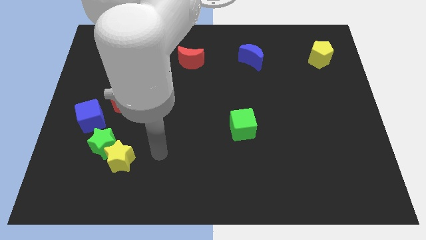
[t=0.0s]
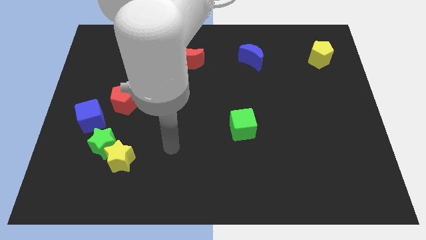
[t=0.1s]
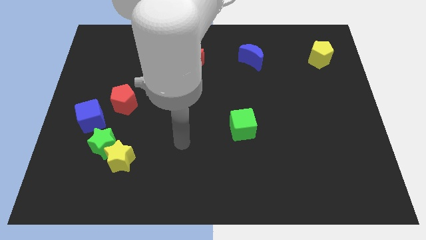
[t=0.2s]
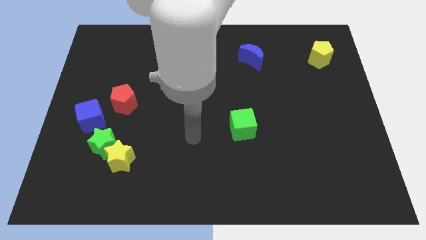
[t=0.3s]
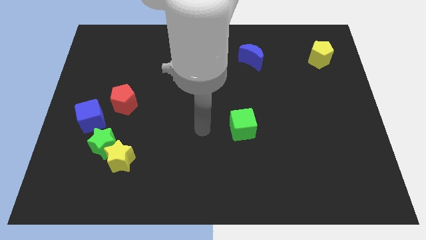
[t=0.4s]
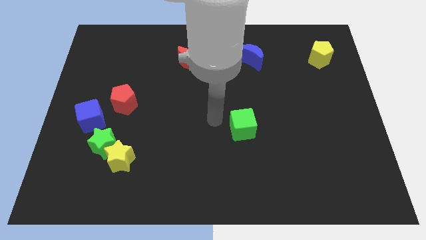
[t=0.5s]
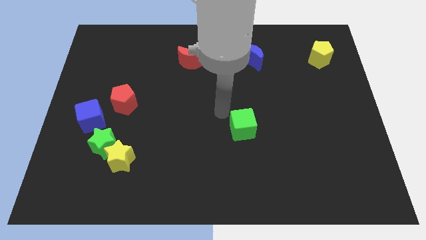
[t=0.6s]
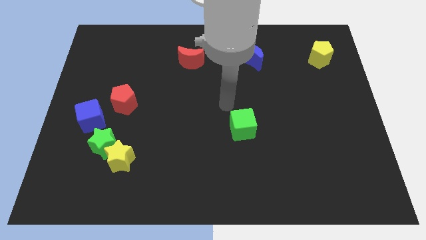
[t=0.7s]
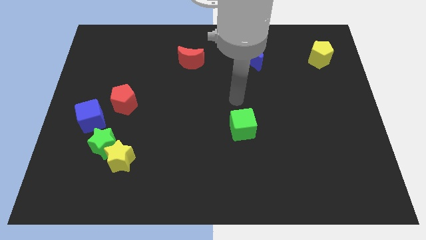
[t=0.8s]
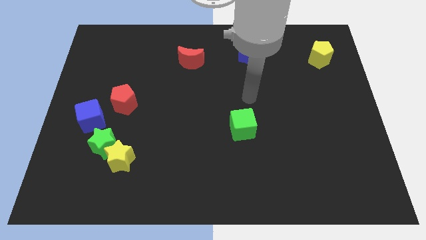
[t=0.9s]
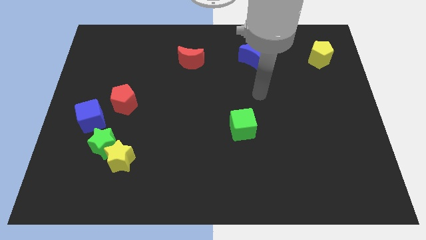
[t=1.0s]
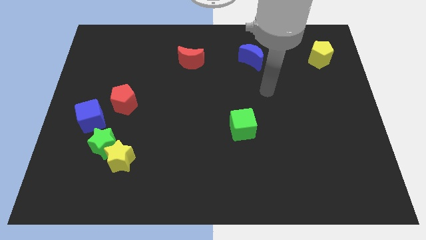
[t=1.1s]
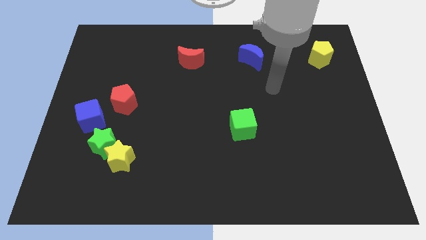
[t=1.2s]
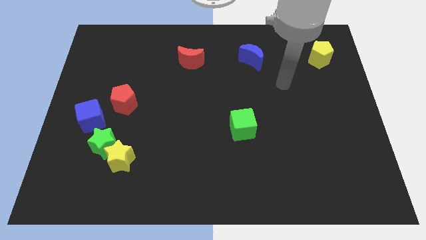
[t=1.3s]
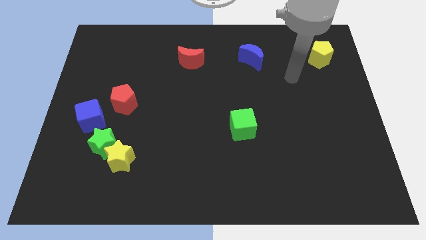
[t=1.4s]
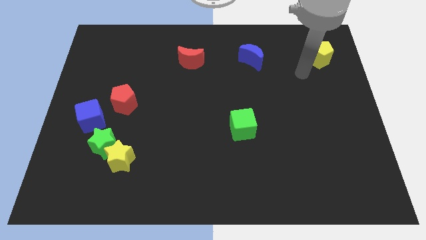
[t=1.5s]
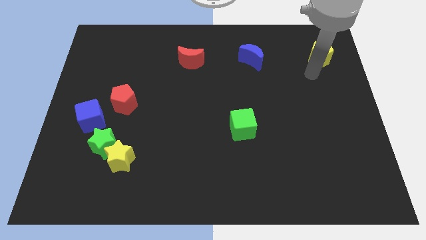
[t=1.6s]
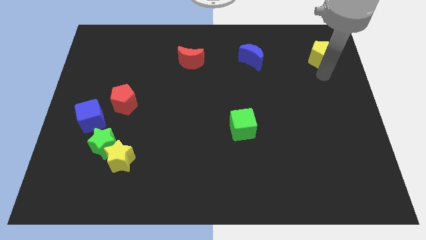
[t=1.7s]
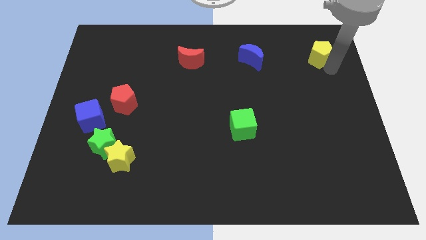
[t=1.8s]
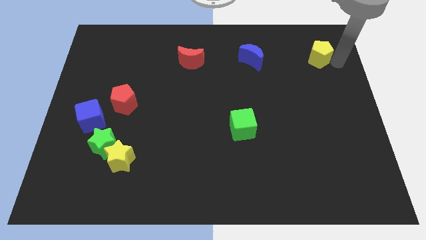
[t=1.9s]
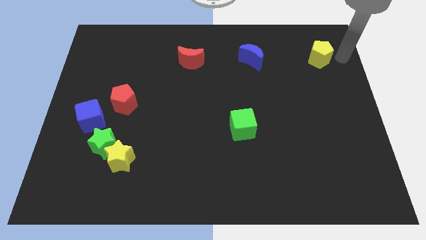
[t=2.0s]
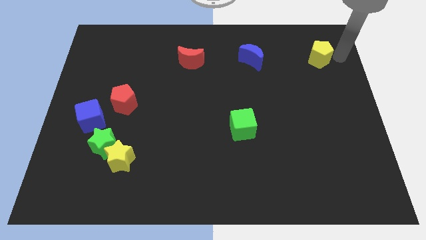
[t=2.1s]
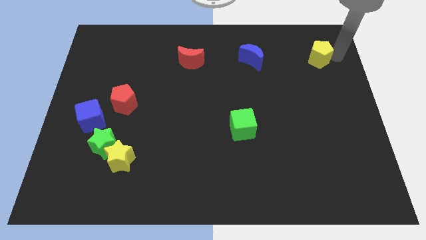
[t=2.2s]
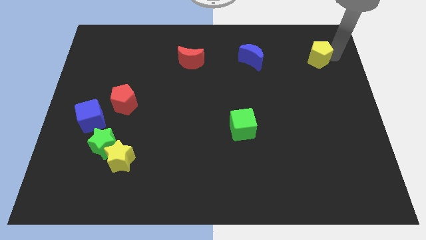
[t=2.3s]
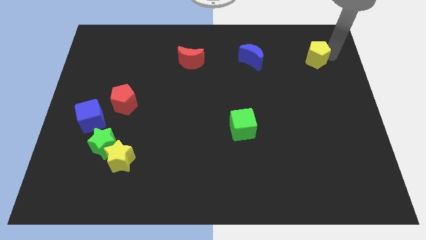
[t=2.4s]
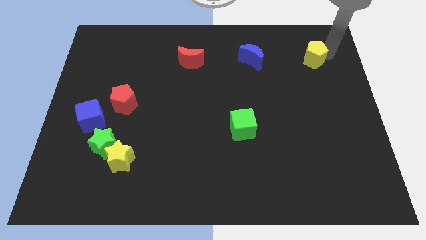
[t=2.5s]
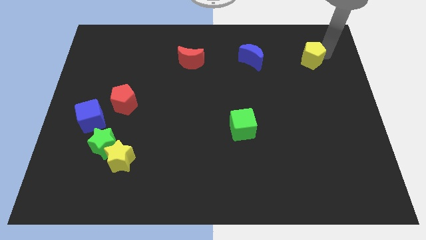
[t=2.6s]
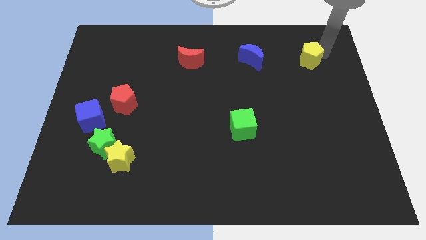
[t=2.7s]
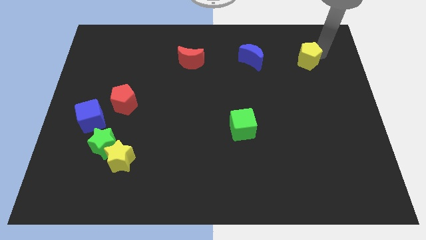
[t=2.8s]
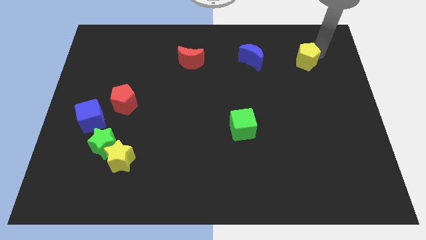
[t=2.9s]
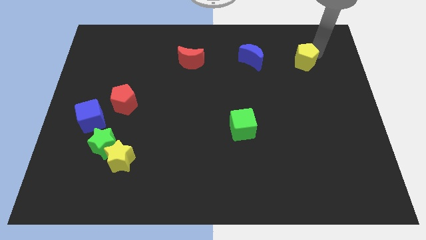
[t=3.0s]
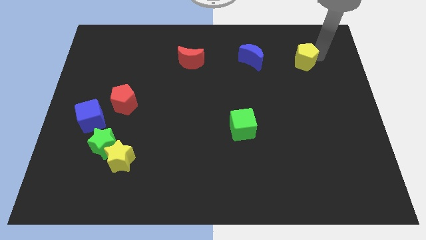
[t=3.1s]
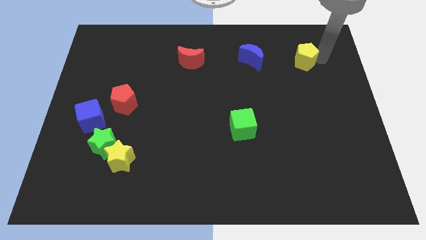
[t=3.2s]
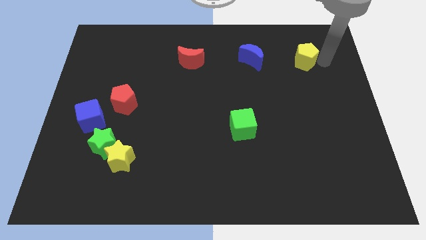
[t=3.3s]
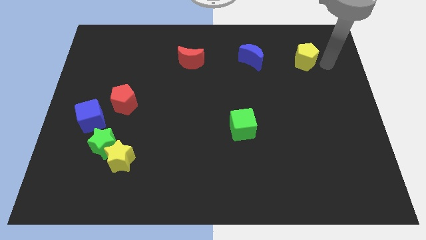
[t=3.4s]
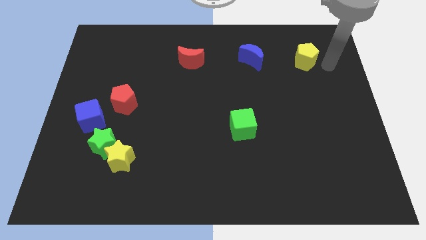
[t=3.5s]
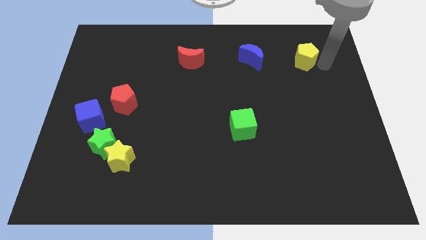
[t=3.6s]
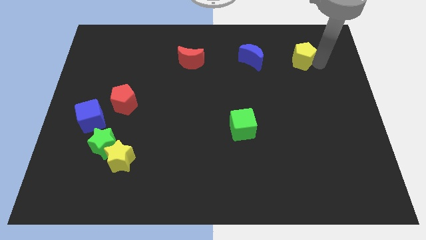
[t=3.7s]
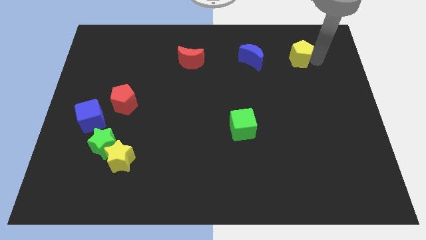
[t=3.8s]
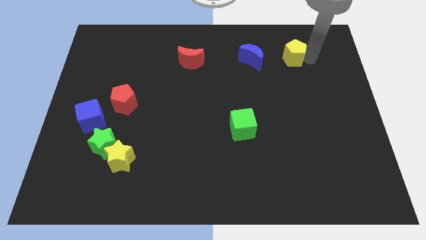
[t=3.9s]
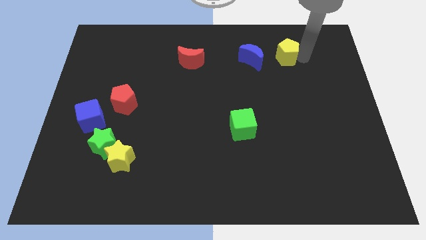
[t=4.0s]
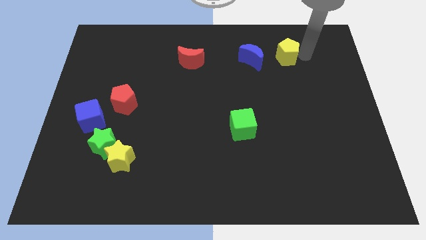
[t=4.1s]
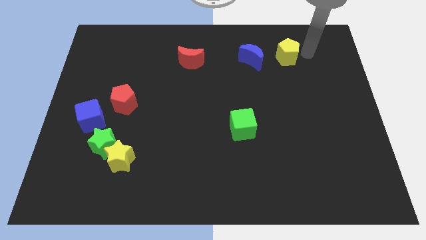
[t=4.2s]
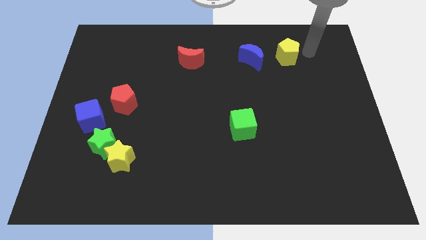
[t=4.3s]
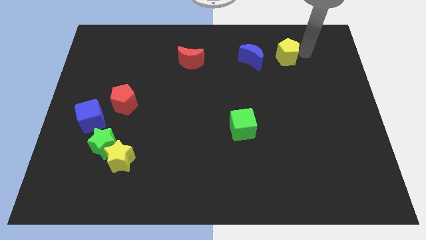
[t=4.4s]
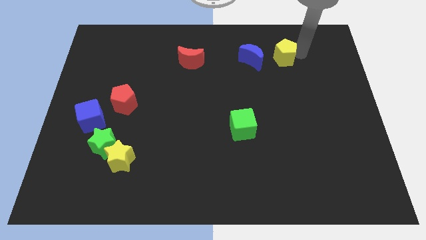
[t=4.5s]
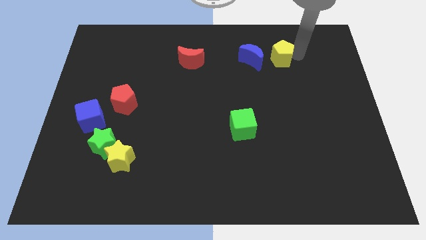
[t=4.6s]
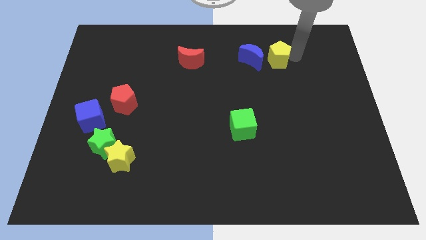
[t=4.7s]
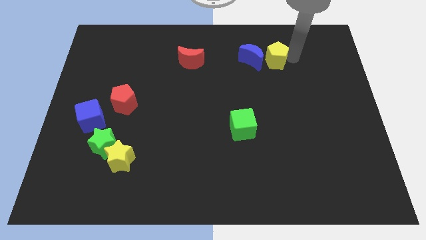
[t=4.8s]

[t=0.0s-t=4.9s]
push the yellow pentagon to the blue moon

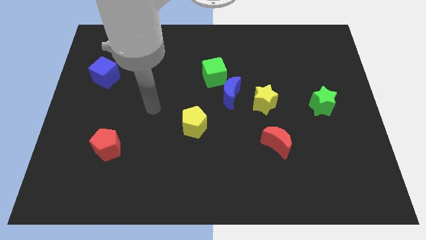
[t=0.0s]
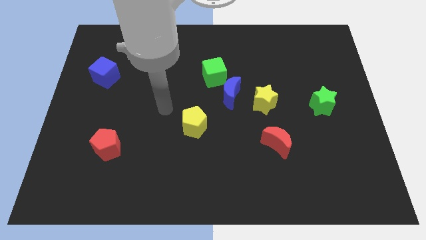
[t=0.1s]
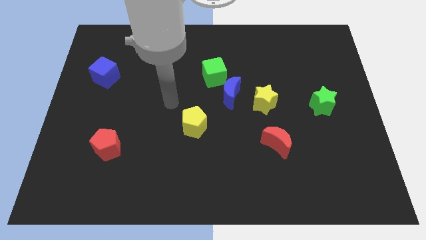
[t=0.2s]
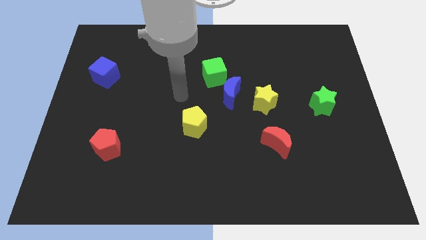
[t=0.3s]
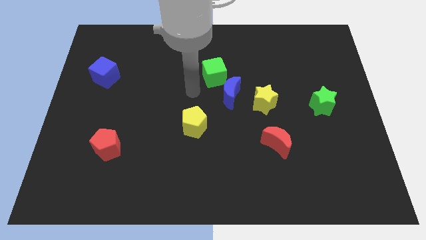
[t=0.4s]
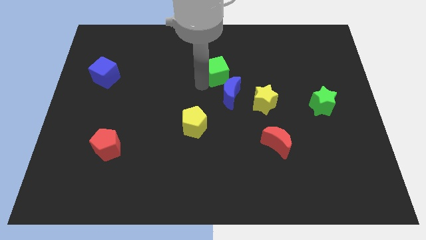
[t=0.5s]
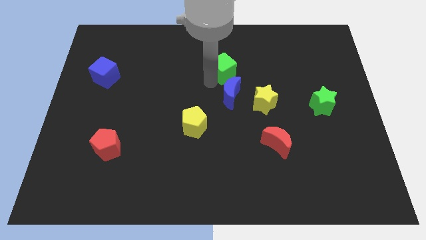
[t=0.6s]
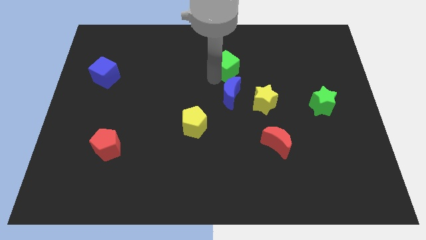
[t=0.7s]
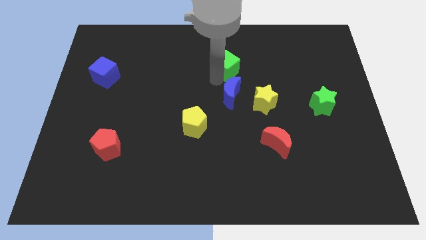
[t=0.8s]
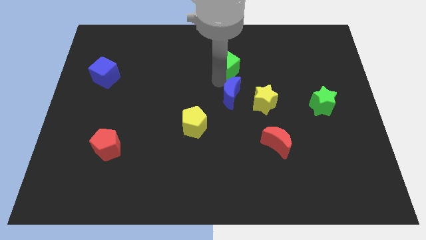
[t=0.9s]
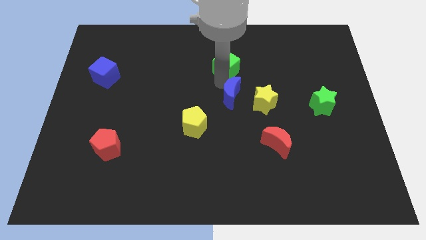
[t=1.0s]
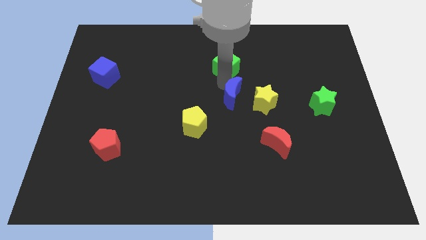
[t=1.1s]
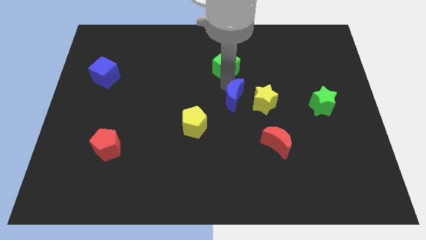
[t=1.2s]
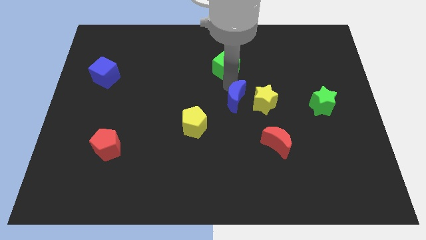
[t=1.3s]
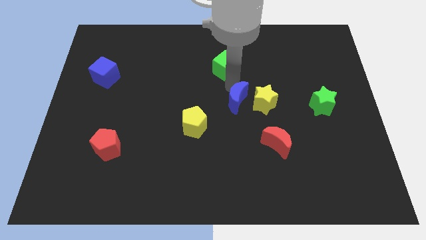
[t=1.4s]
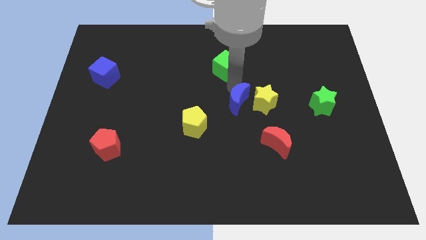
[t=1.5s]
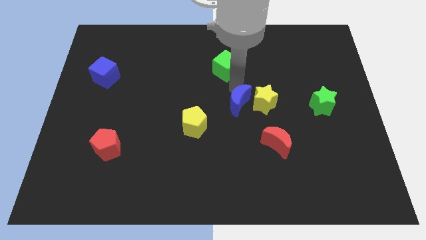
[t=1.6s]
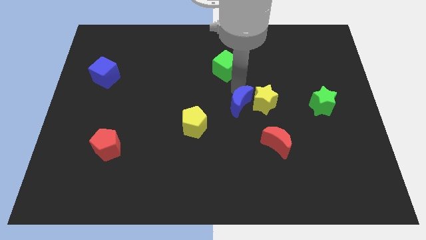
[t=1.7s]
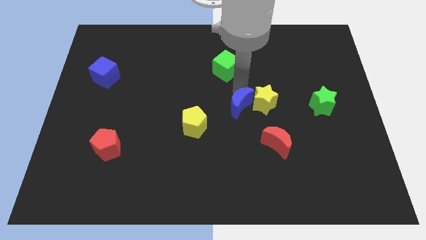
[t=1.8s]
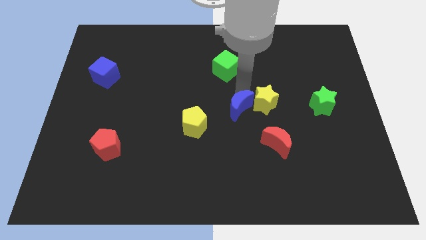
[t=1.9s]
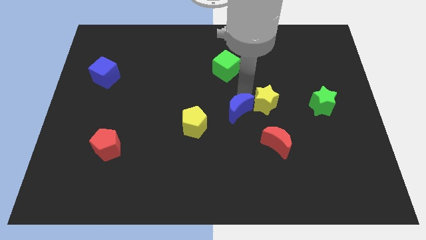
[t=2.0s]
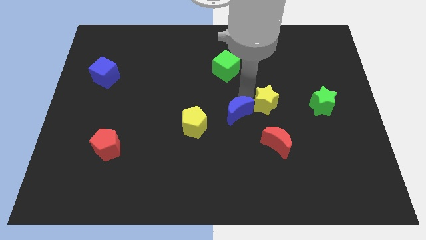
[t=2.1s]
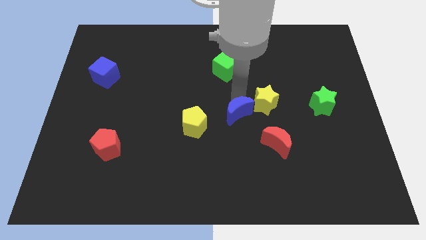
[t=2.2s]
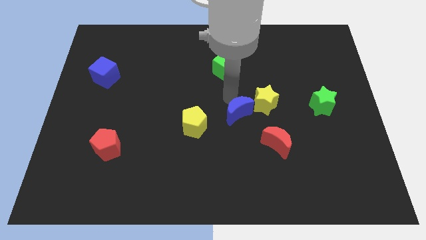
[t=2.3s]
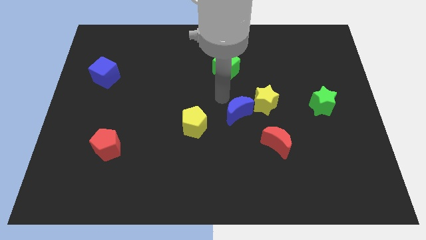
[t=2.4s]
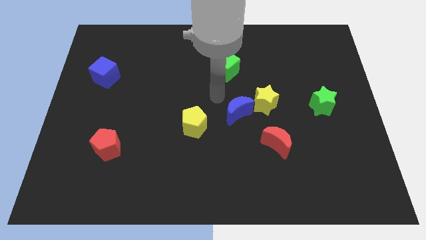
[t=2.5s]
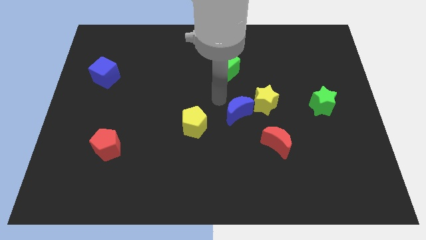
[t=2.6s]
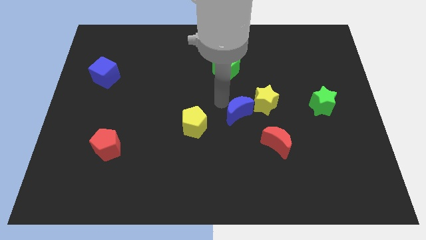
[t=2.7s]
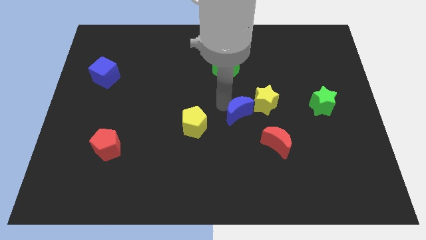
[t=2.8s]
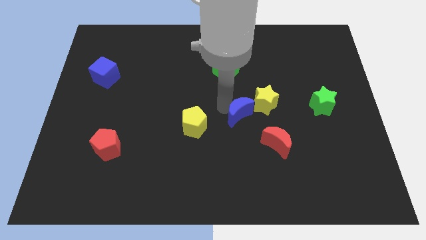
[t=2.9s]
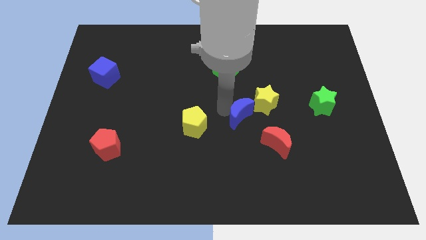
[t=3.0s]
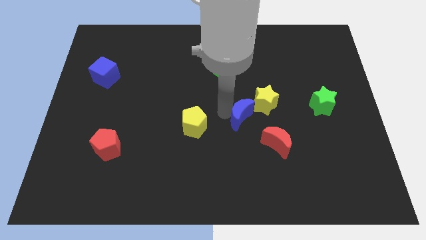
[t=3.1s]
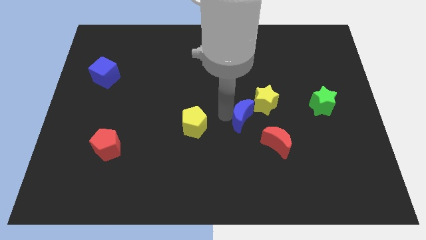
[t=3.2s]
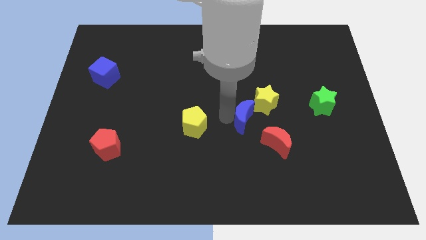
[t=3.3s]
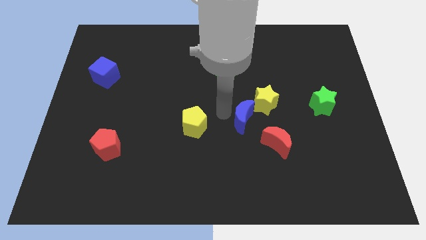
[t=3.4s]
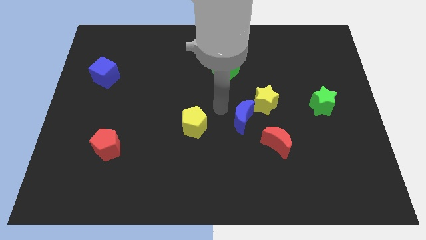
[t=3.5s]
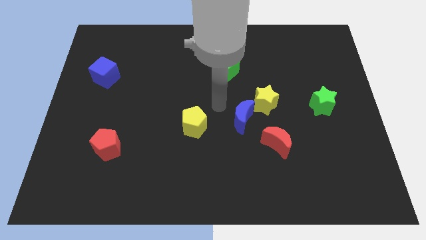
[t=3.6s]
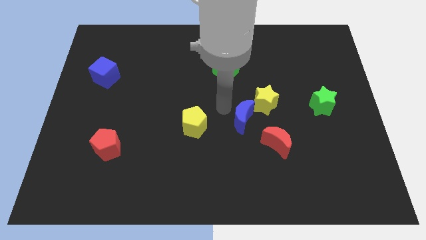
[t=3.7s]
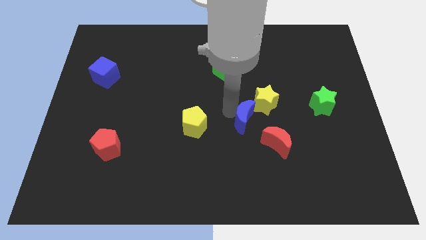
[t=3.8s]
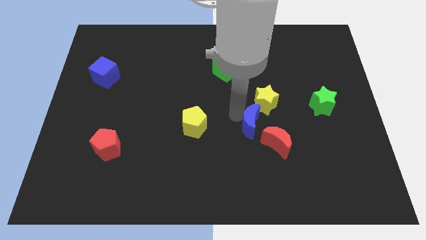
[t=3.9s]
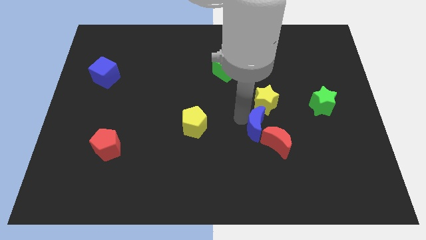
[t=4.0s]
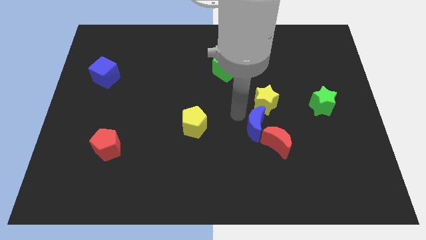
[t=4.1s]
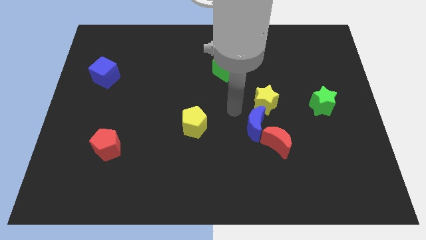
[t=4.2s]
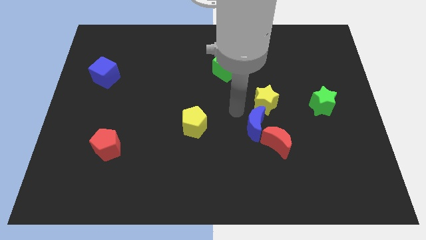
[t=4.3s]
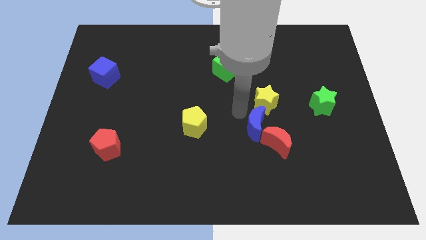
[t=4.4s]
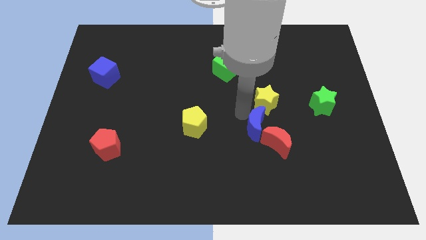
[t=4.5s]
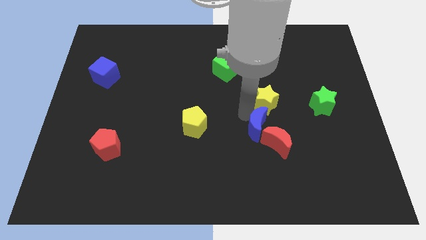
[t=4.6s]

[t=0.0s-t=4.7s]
slide the blue moon next to the red moon
